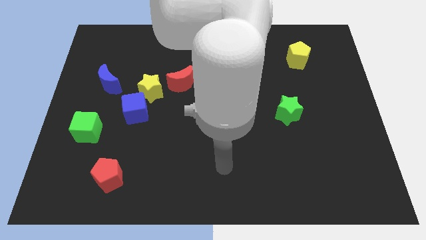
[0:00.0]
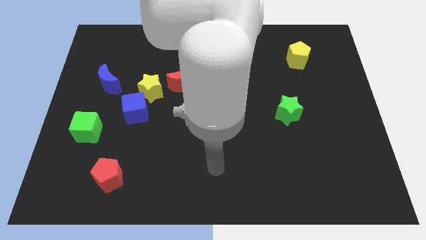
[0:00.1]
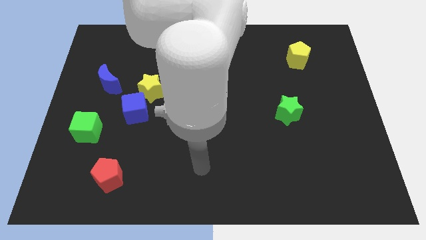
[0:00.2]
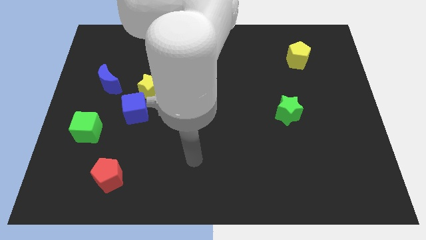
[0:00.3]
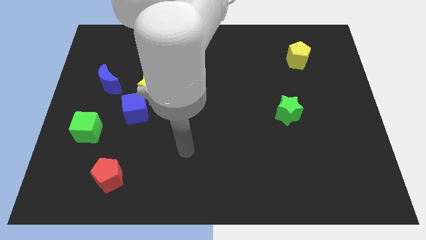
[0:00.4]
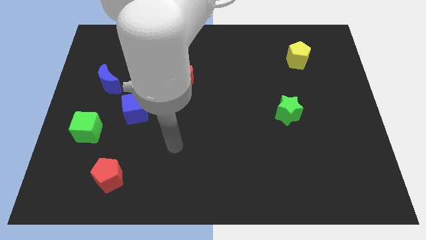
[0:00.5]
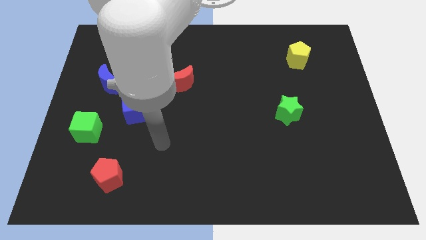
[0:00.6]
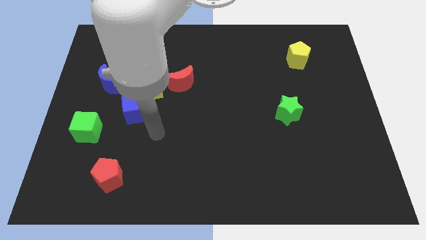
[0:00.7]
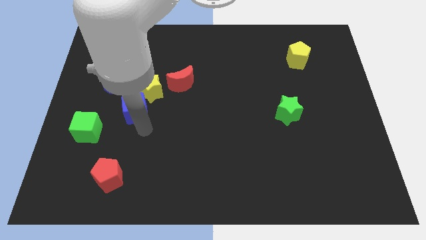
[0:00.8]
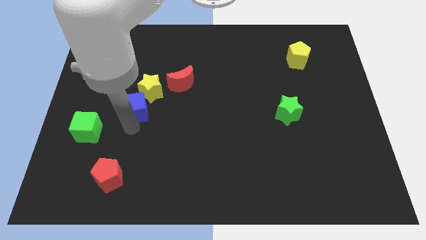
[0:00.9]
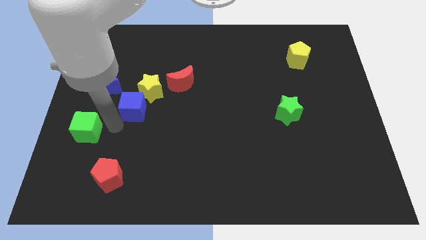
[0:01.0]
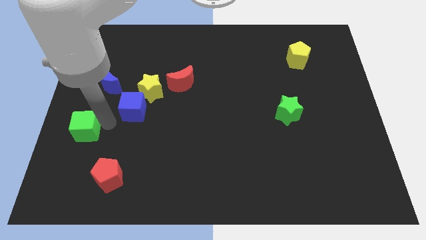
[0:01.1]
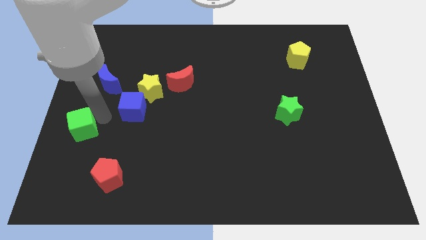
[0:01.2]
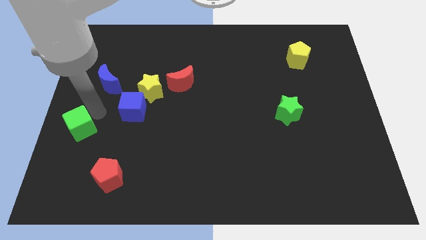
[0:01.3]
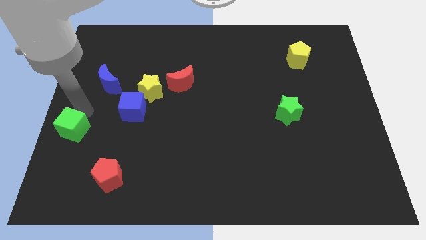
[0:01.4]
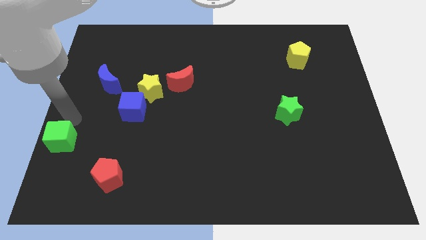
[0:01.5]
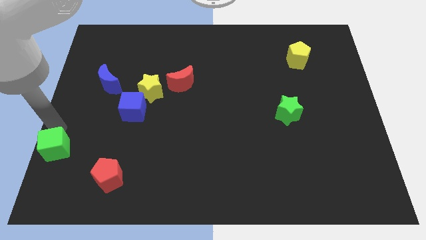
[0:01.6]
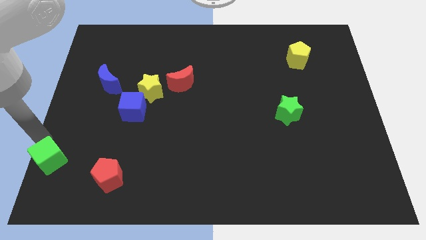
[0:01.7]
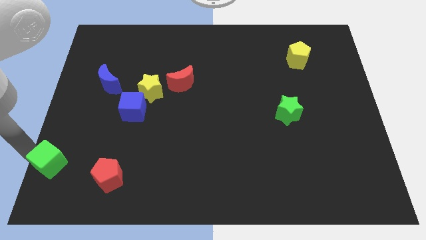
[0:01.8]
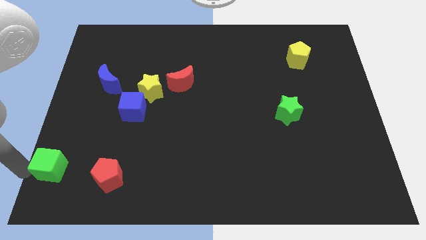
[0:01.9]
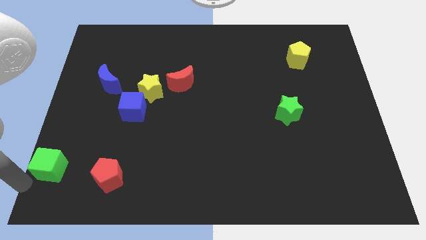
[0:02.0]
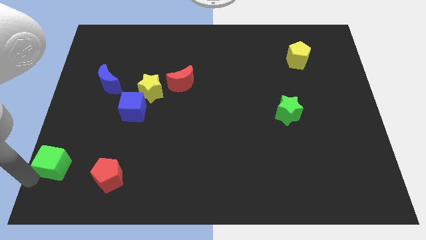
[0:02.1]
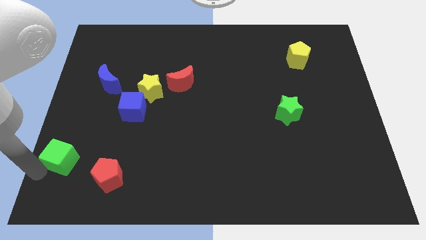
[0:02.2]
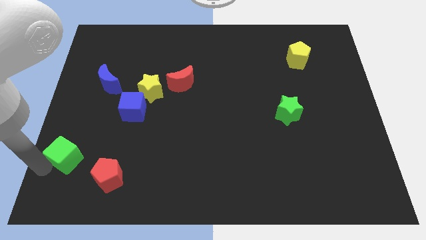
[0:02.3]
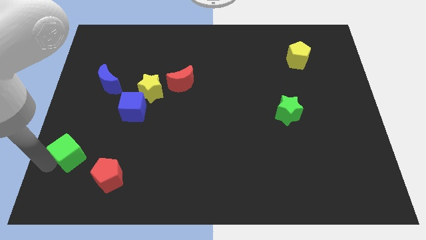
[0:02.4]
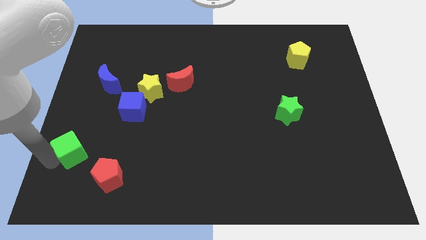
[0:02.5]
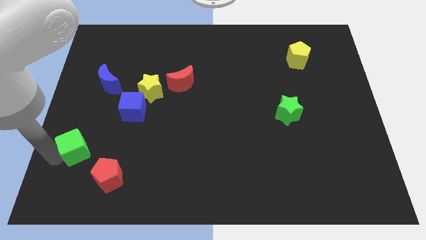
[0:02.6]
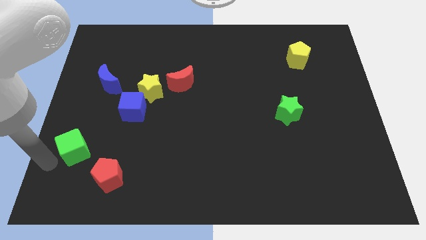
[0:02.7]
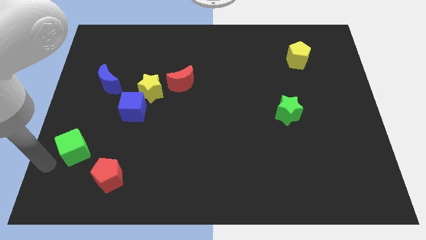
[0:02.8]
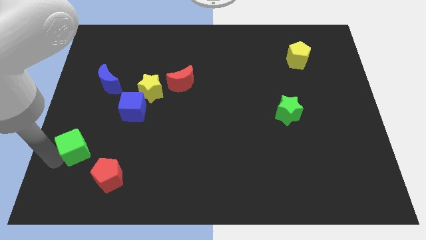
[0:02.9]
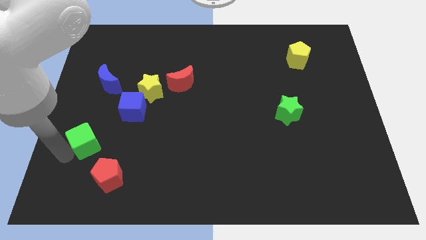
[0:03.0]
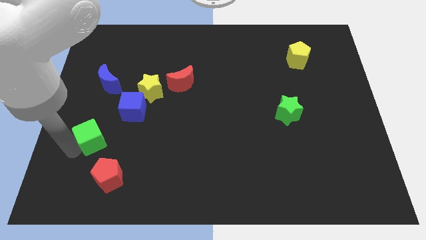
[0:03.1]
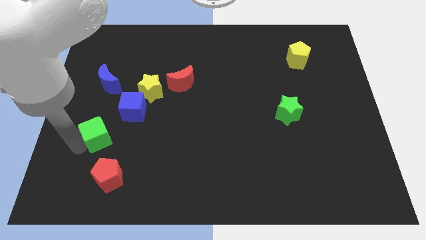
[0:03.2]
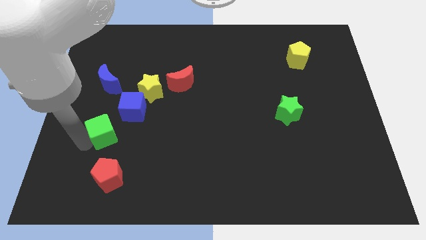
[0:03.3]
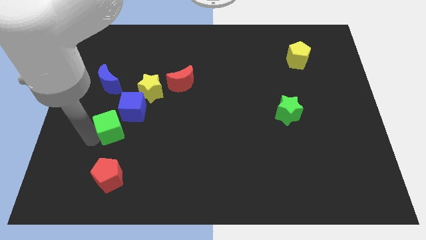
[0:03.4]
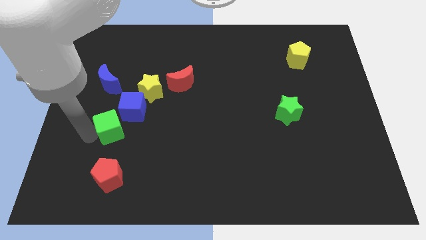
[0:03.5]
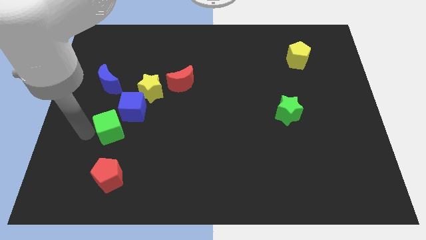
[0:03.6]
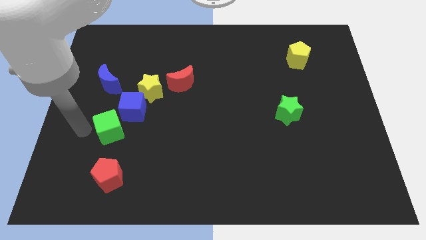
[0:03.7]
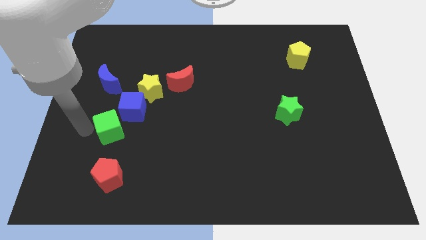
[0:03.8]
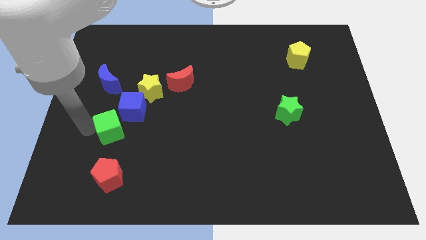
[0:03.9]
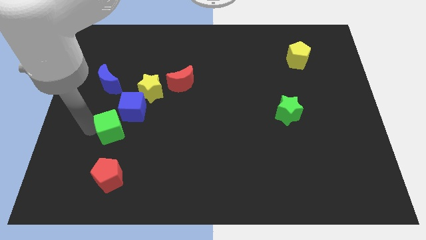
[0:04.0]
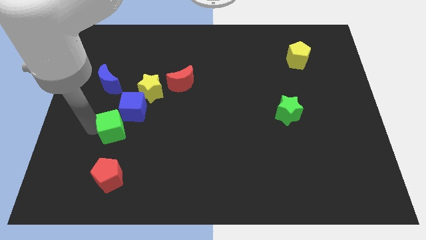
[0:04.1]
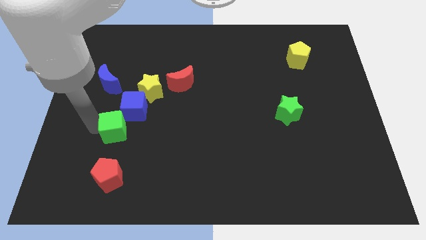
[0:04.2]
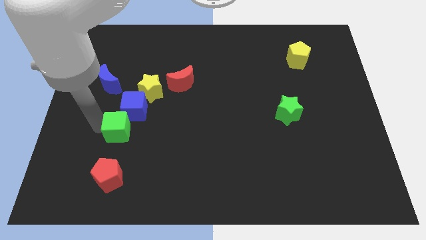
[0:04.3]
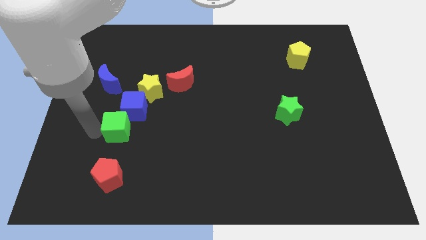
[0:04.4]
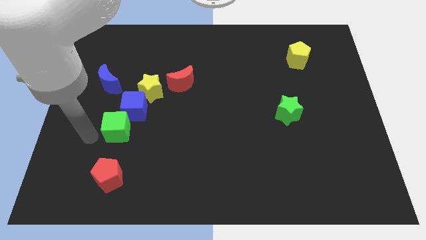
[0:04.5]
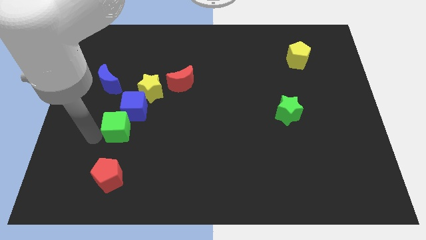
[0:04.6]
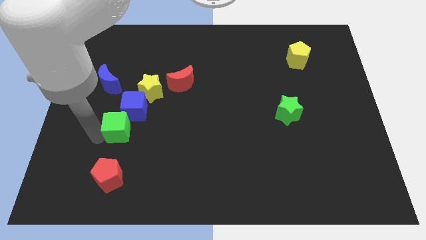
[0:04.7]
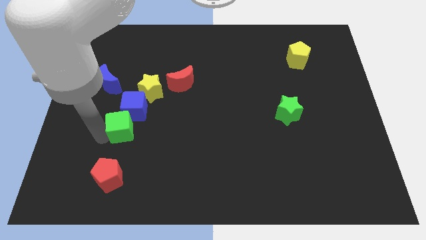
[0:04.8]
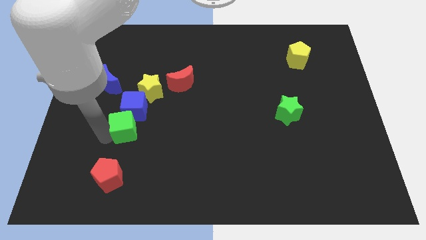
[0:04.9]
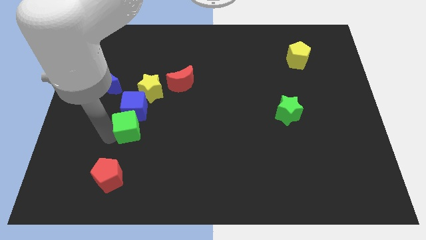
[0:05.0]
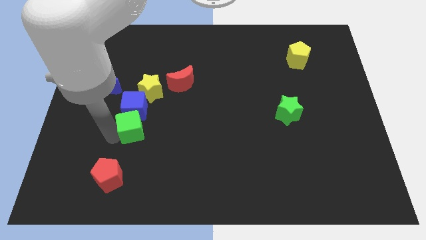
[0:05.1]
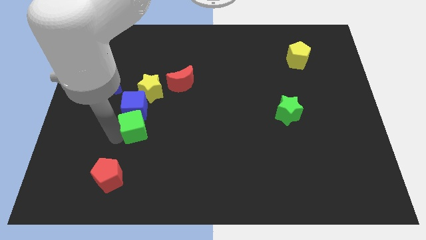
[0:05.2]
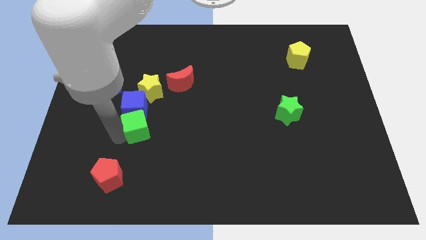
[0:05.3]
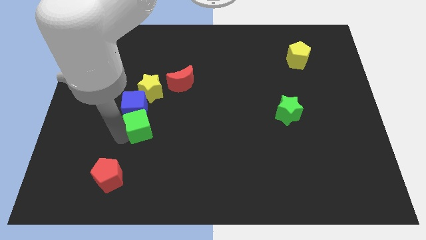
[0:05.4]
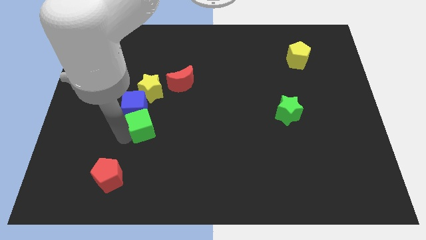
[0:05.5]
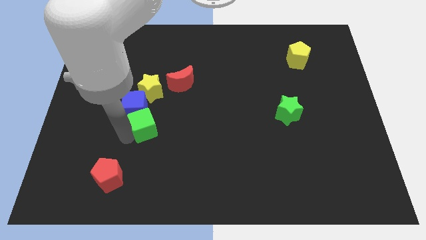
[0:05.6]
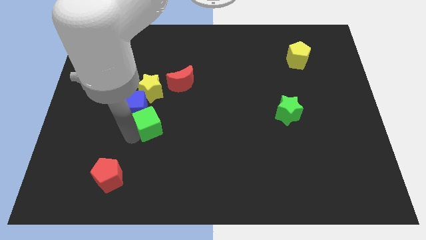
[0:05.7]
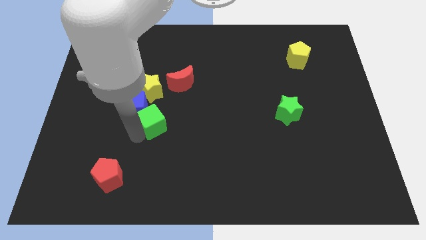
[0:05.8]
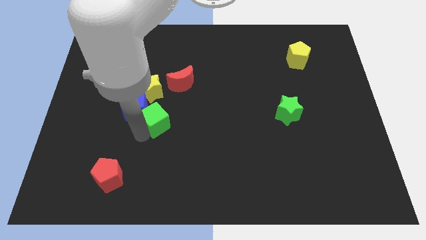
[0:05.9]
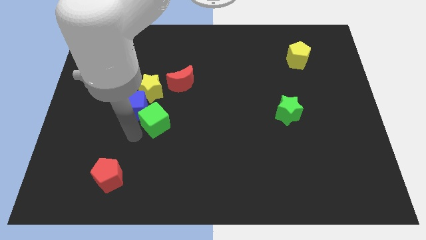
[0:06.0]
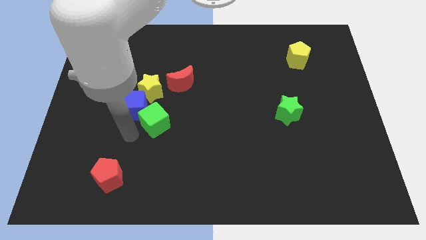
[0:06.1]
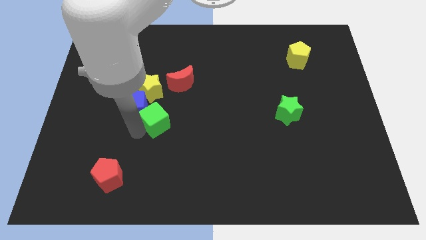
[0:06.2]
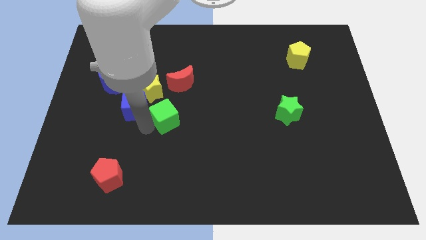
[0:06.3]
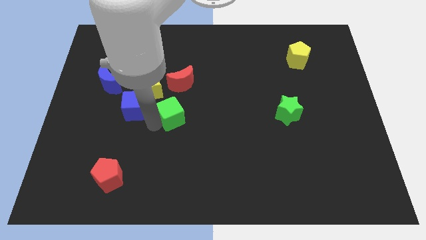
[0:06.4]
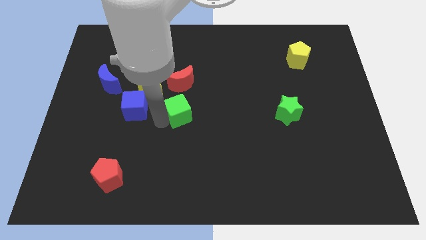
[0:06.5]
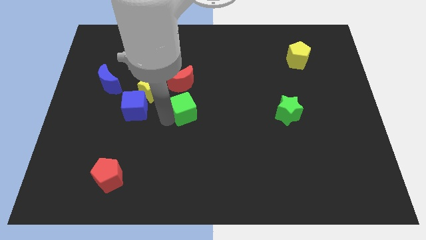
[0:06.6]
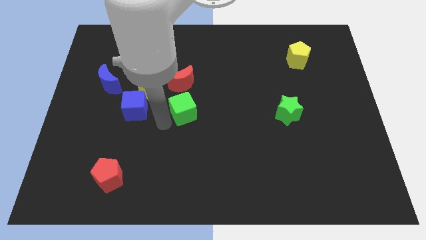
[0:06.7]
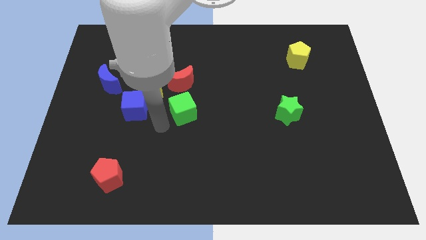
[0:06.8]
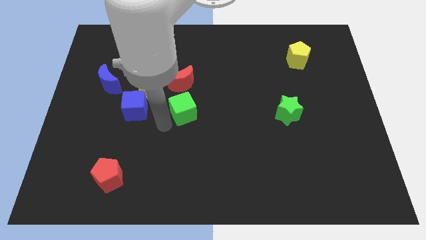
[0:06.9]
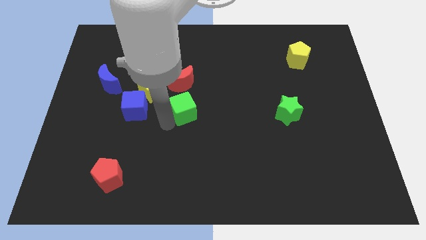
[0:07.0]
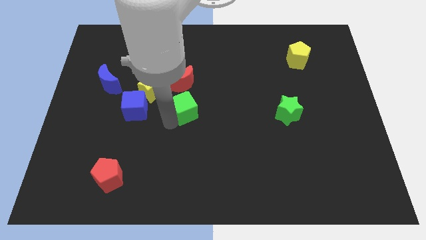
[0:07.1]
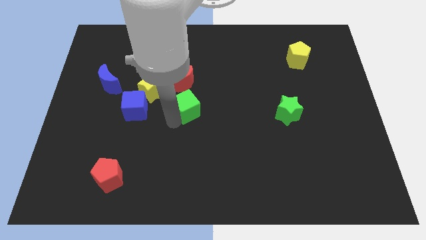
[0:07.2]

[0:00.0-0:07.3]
slide the green cube to the bottom right side of the red moon

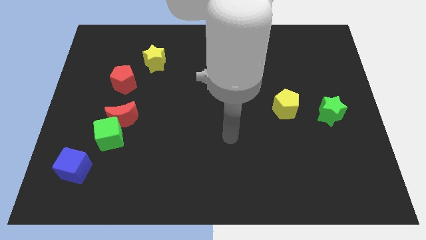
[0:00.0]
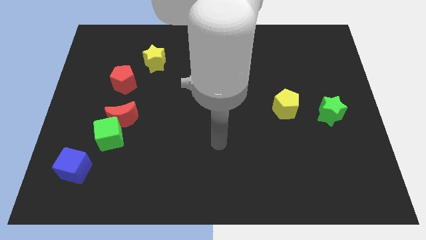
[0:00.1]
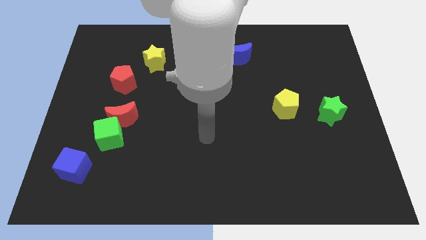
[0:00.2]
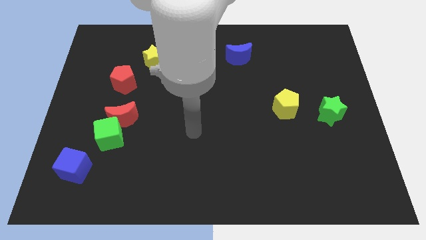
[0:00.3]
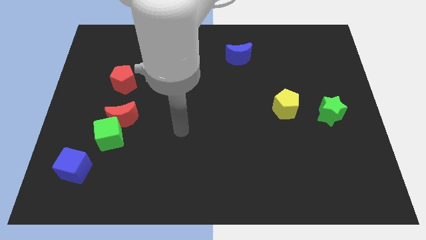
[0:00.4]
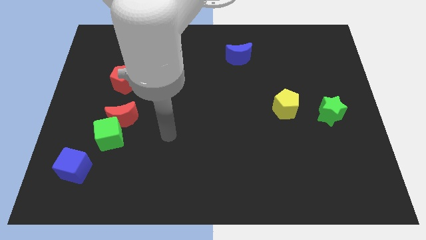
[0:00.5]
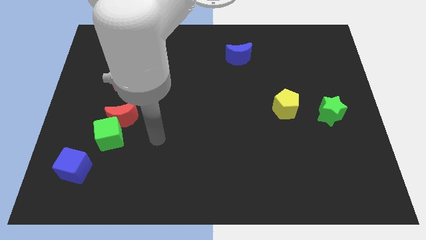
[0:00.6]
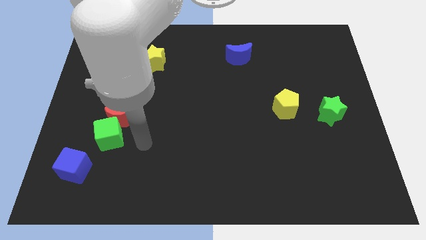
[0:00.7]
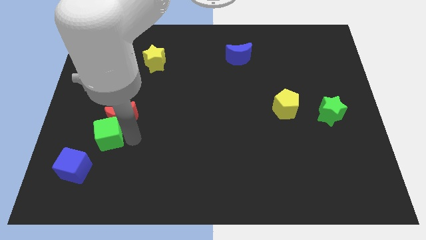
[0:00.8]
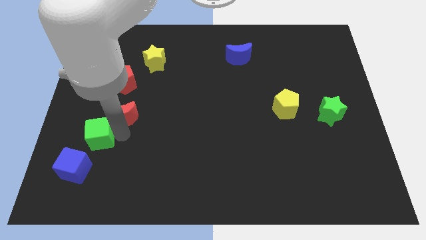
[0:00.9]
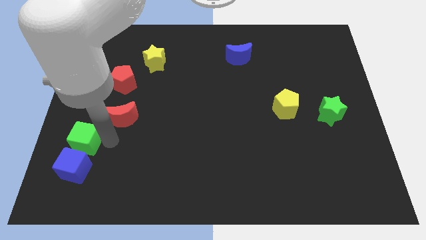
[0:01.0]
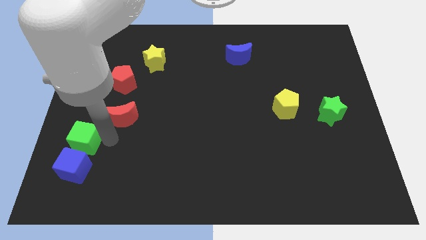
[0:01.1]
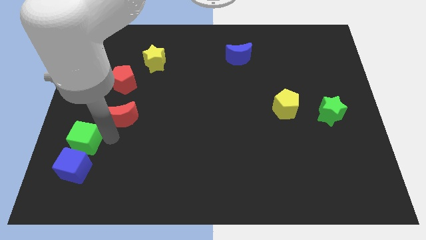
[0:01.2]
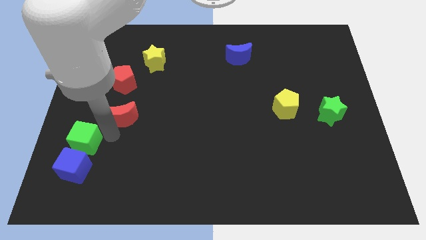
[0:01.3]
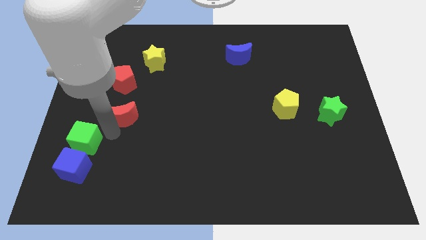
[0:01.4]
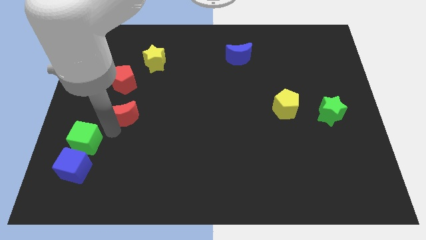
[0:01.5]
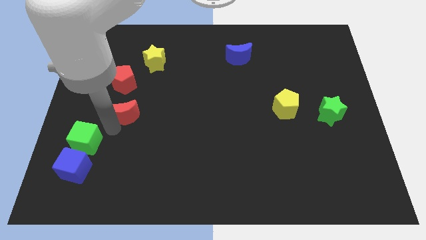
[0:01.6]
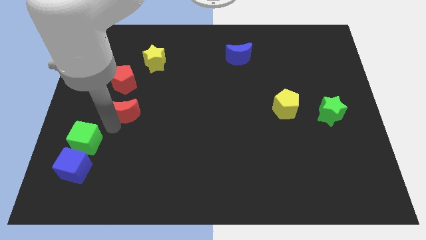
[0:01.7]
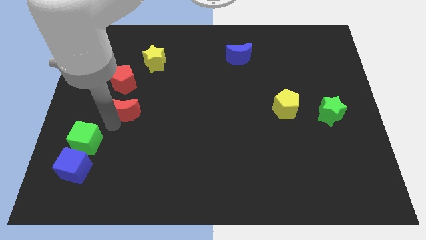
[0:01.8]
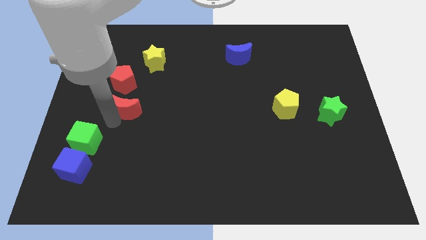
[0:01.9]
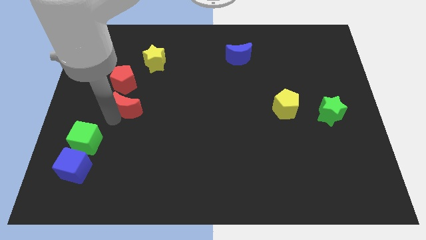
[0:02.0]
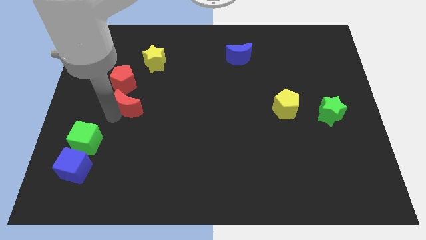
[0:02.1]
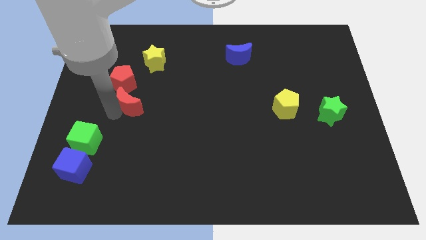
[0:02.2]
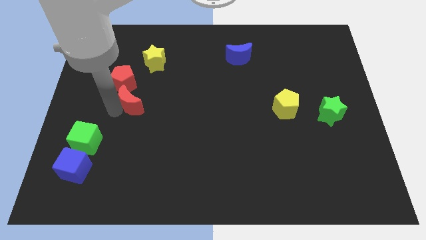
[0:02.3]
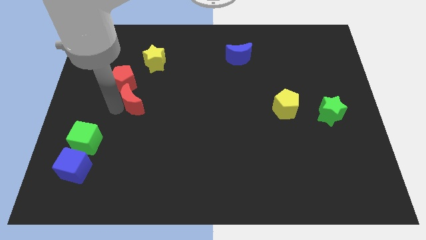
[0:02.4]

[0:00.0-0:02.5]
put the red moon to the bottom of the yellow star
